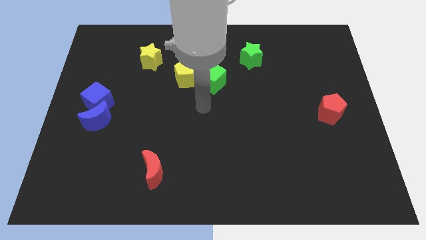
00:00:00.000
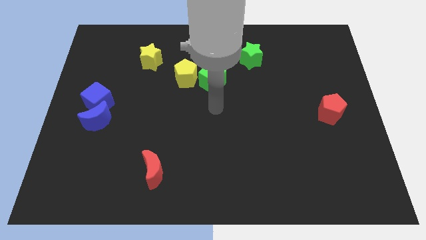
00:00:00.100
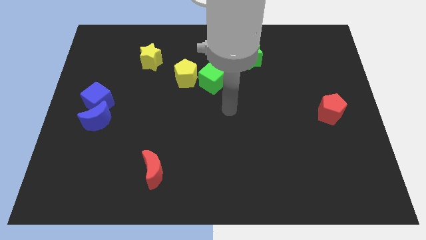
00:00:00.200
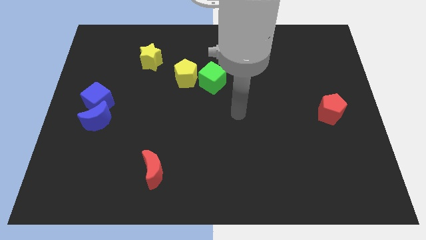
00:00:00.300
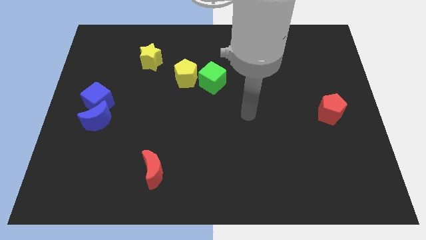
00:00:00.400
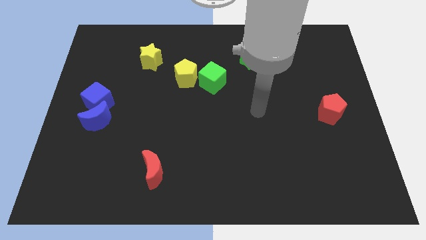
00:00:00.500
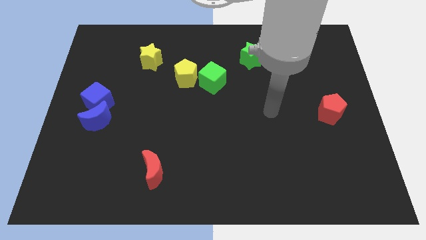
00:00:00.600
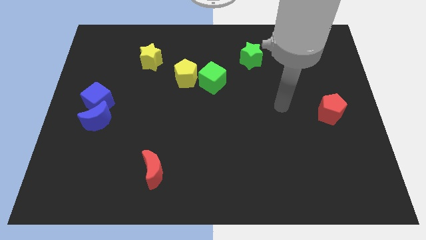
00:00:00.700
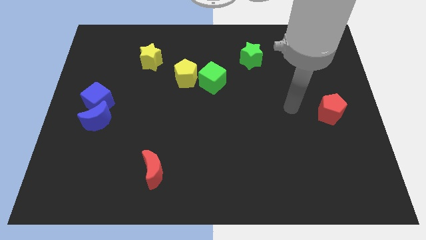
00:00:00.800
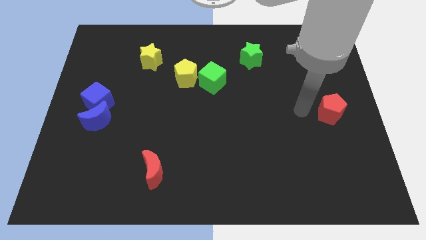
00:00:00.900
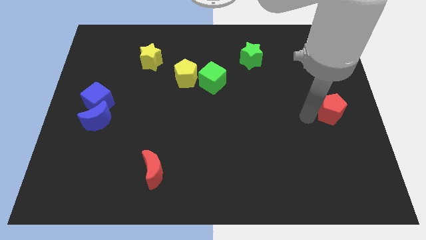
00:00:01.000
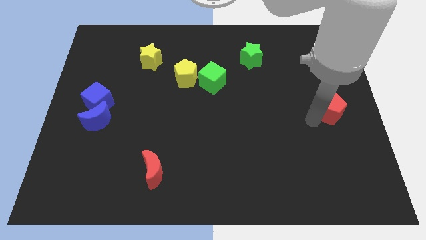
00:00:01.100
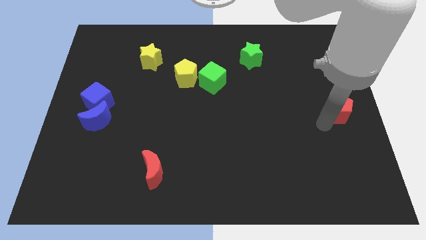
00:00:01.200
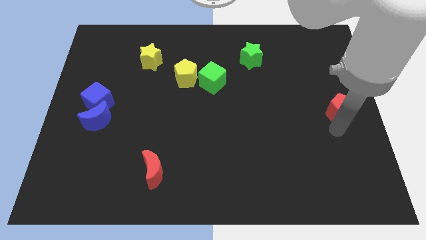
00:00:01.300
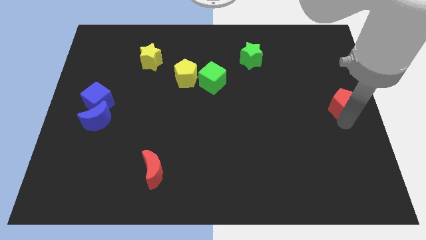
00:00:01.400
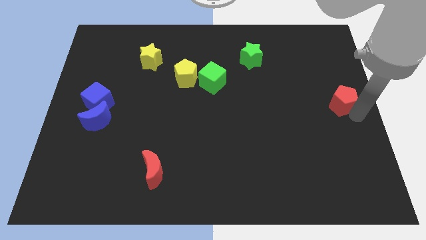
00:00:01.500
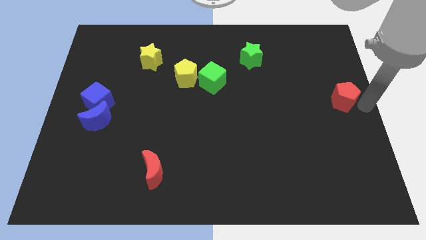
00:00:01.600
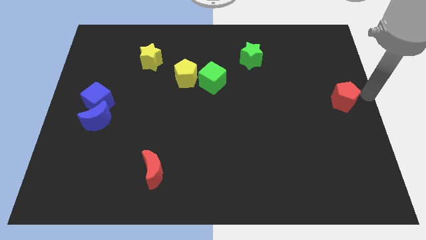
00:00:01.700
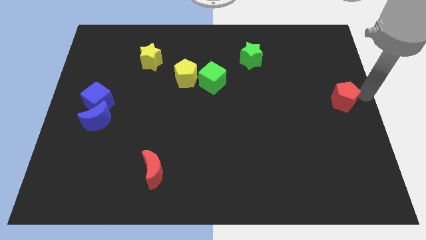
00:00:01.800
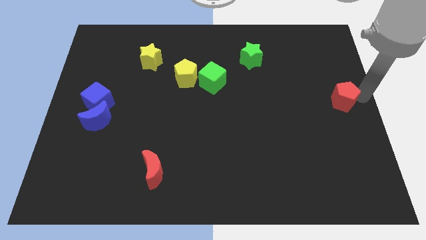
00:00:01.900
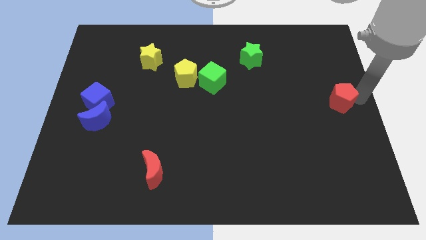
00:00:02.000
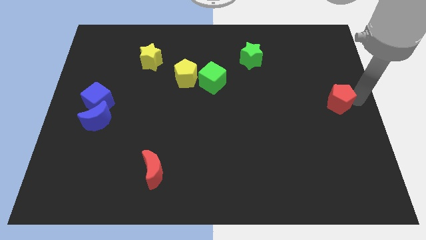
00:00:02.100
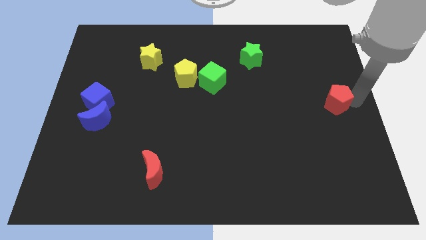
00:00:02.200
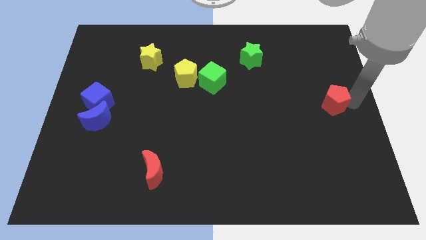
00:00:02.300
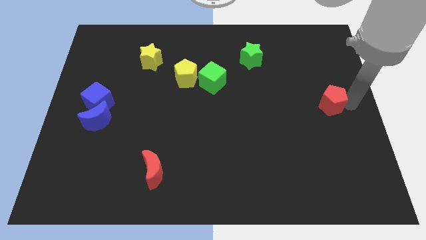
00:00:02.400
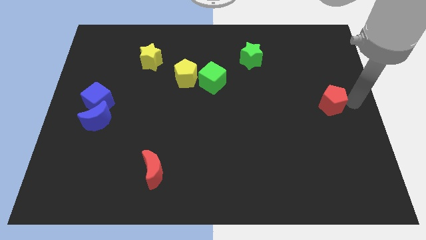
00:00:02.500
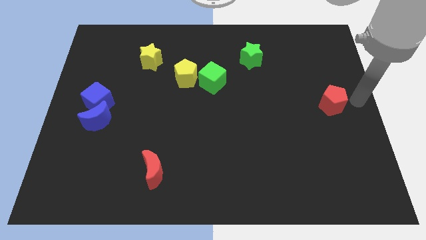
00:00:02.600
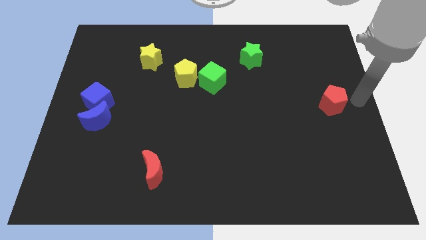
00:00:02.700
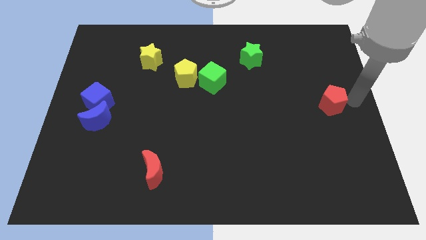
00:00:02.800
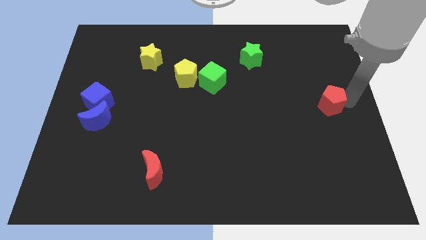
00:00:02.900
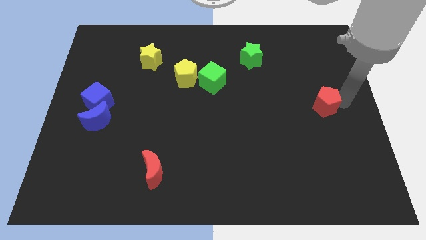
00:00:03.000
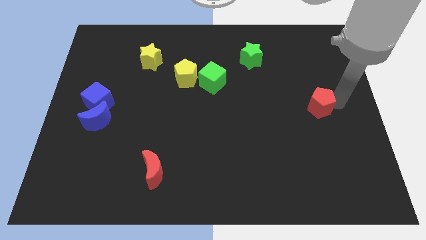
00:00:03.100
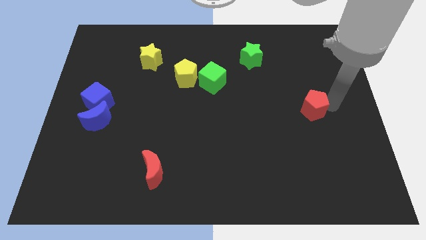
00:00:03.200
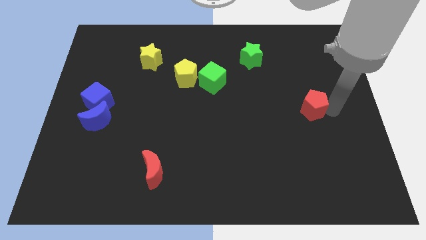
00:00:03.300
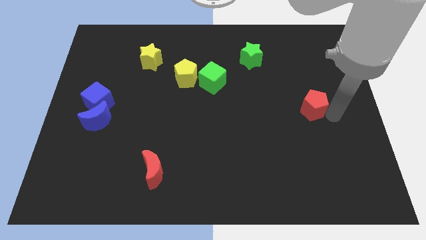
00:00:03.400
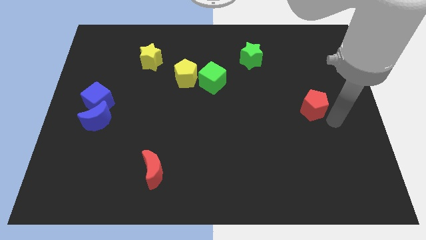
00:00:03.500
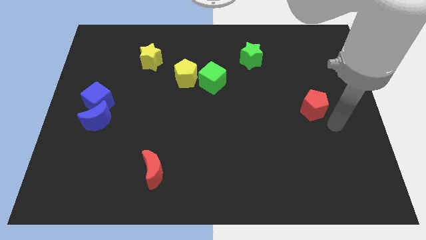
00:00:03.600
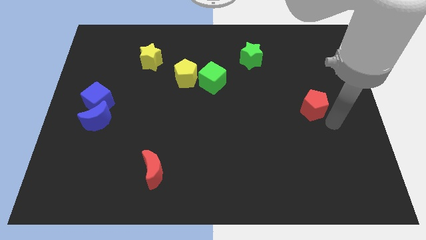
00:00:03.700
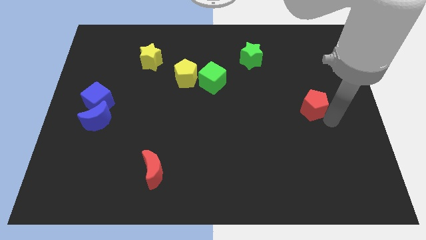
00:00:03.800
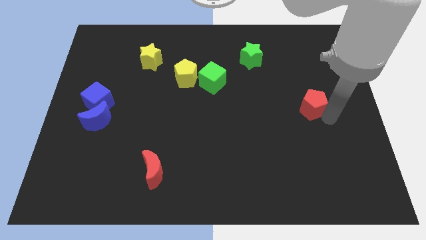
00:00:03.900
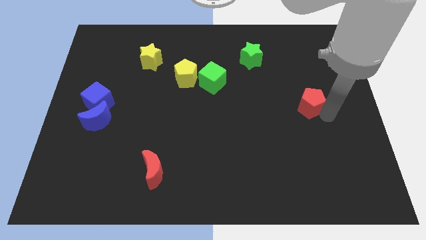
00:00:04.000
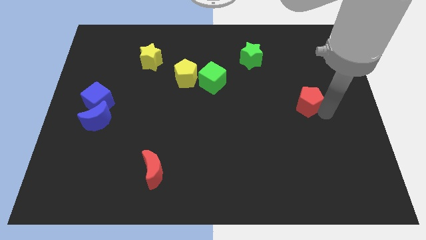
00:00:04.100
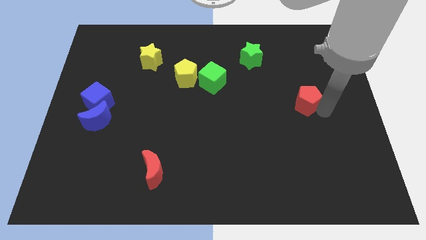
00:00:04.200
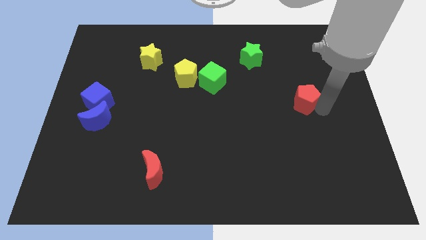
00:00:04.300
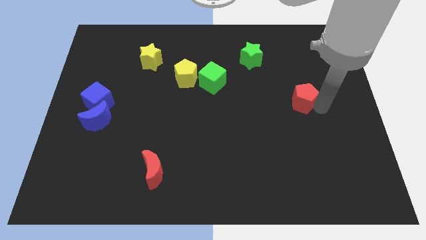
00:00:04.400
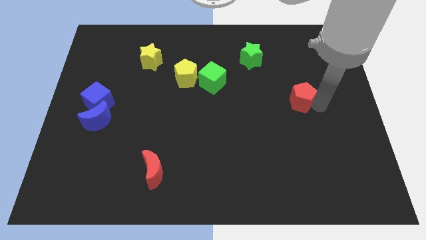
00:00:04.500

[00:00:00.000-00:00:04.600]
slide the red pentagon a little upwards and then to the left

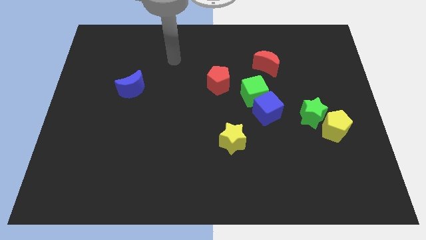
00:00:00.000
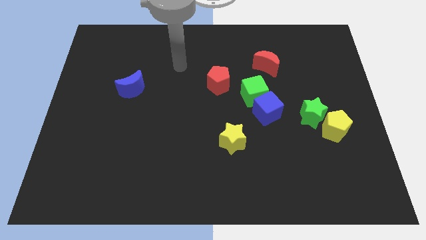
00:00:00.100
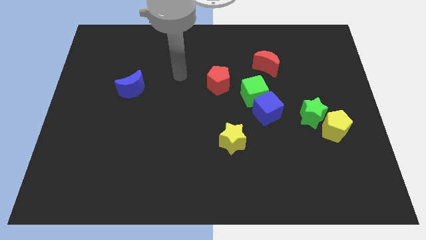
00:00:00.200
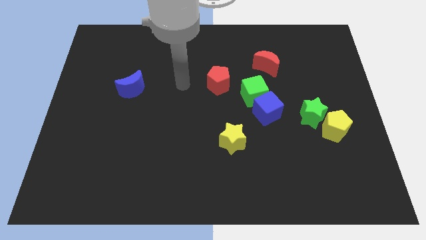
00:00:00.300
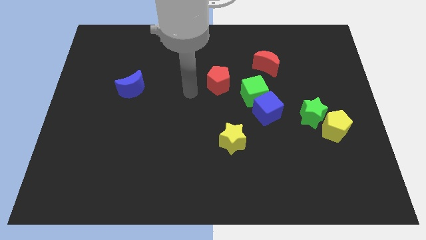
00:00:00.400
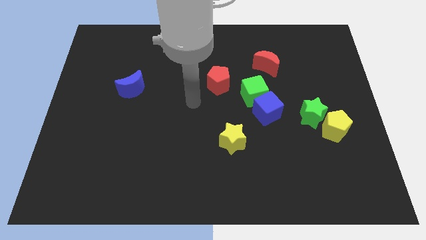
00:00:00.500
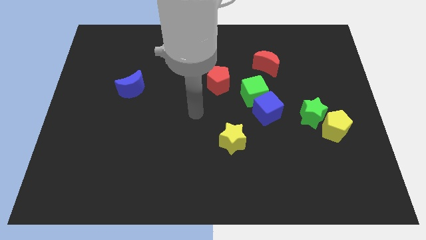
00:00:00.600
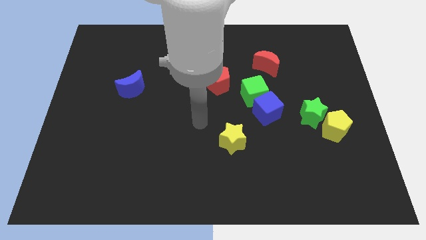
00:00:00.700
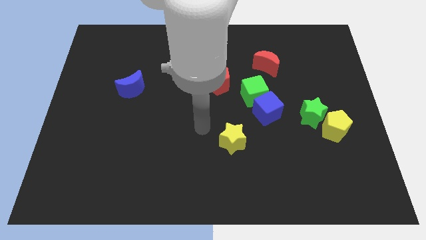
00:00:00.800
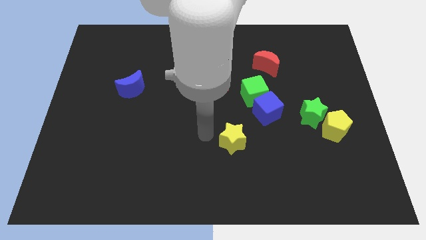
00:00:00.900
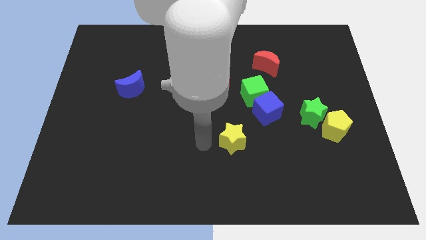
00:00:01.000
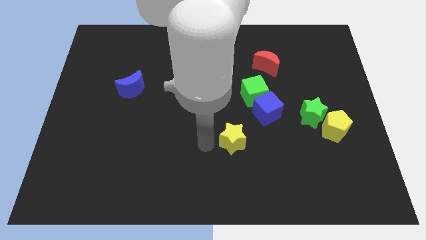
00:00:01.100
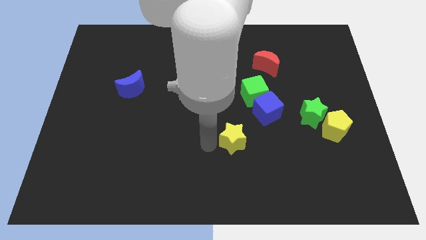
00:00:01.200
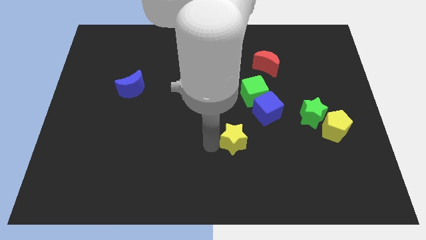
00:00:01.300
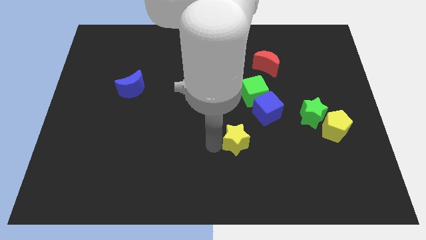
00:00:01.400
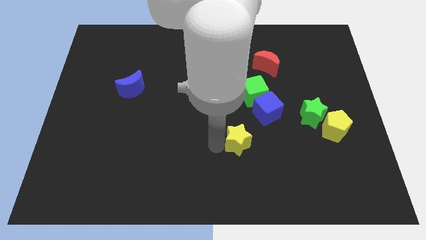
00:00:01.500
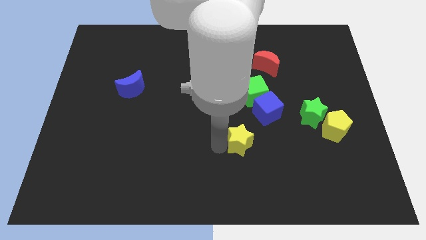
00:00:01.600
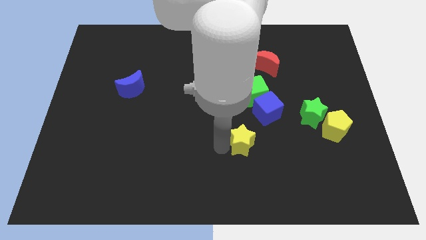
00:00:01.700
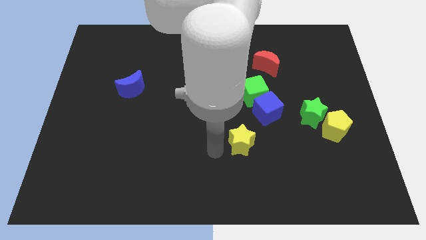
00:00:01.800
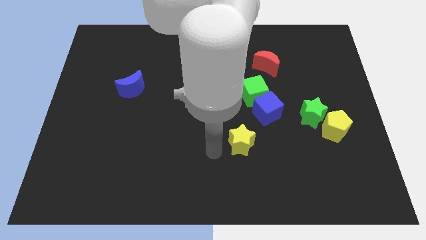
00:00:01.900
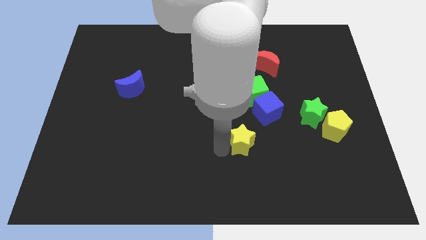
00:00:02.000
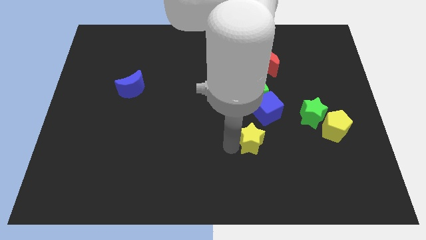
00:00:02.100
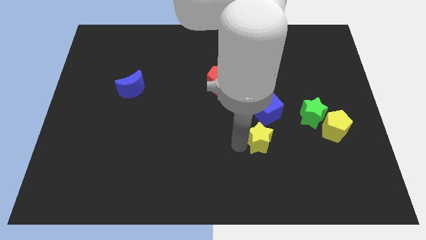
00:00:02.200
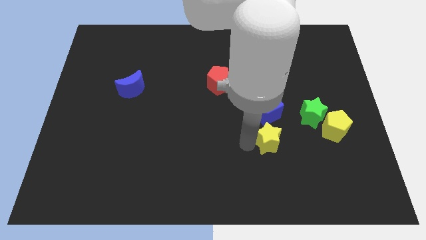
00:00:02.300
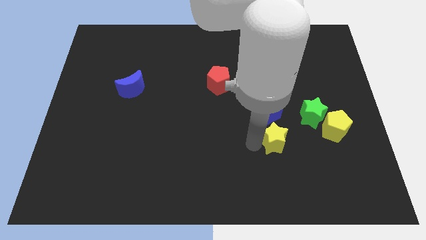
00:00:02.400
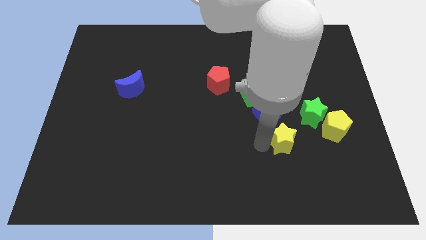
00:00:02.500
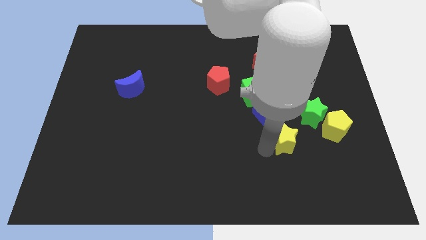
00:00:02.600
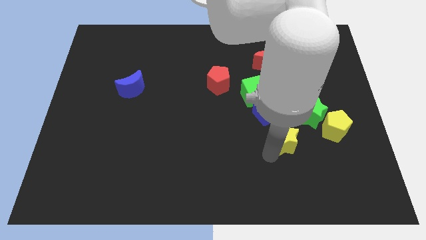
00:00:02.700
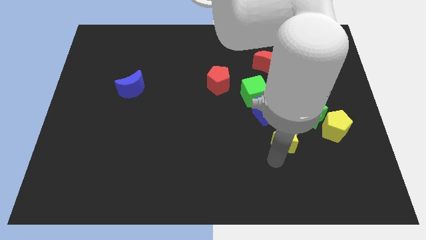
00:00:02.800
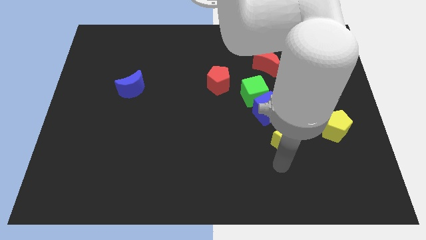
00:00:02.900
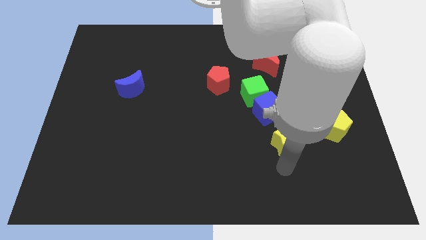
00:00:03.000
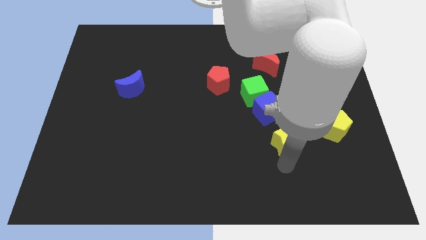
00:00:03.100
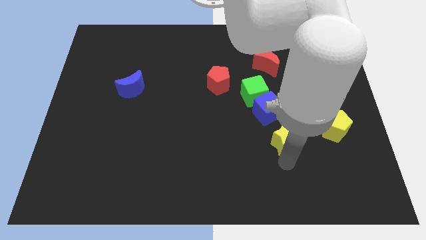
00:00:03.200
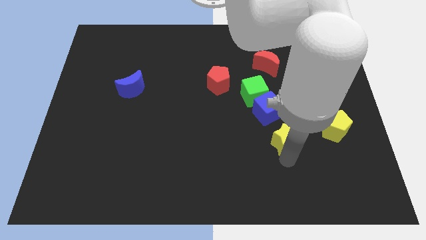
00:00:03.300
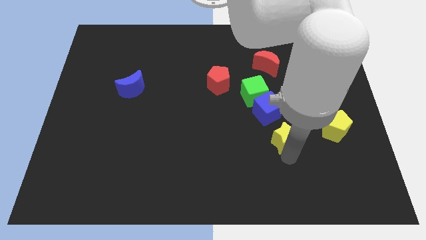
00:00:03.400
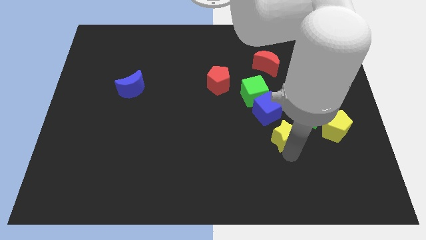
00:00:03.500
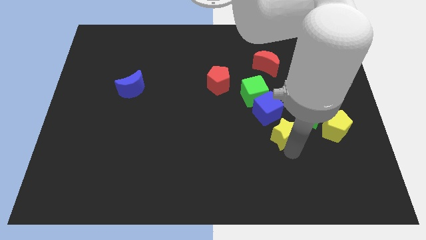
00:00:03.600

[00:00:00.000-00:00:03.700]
slightly move the yellow star diagonally up and to the right
